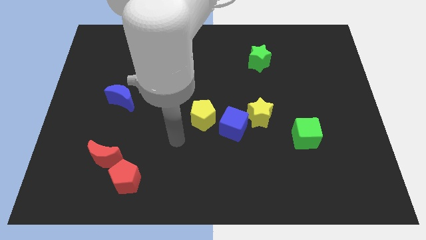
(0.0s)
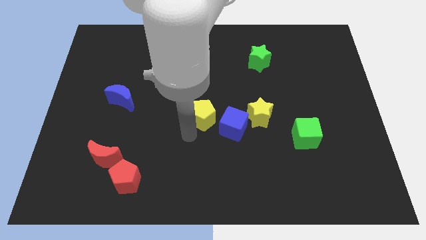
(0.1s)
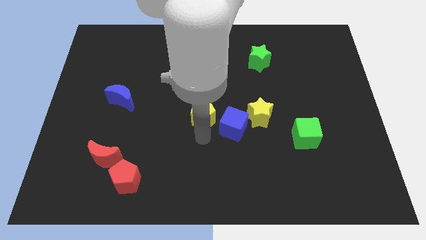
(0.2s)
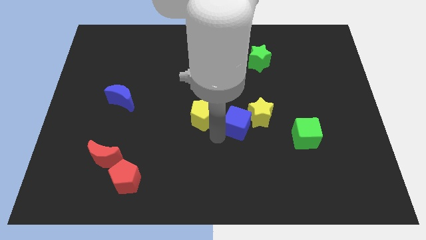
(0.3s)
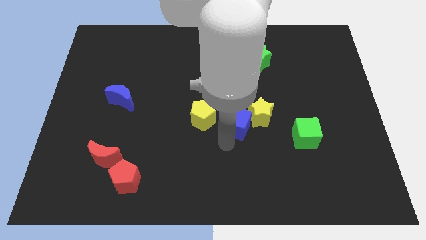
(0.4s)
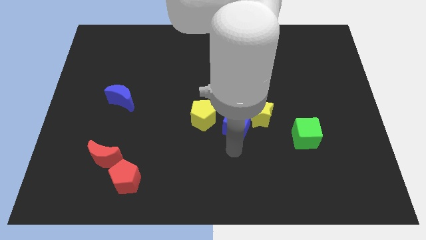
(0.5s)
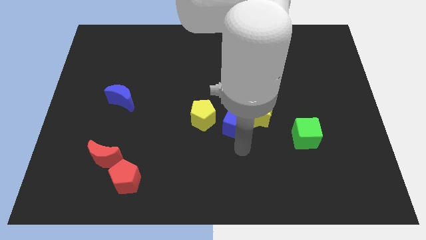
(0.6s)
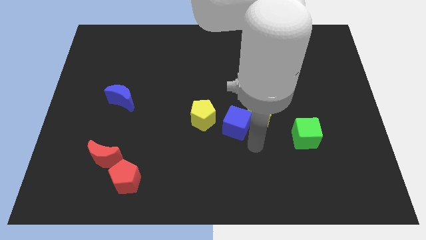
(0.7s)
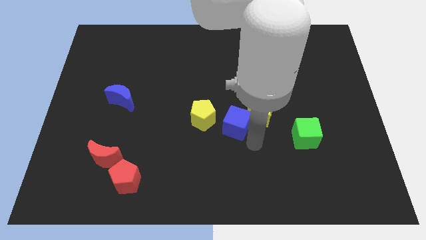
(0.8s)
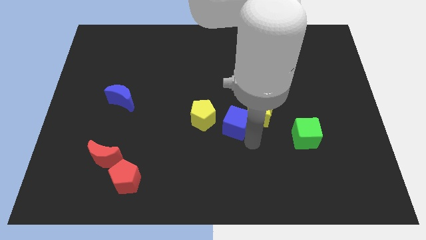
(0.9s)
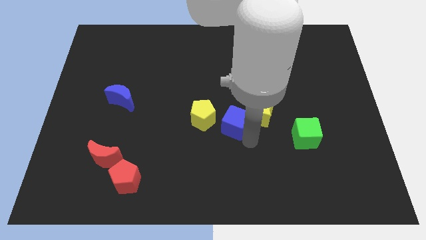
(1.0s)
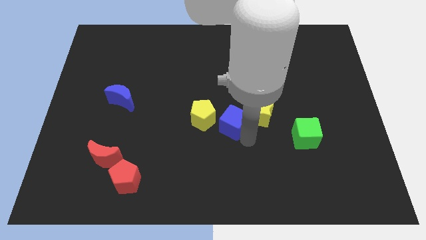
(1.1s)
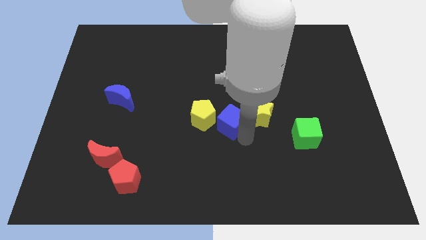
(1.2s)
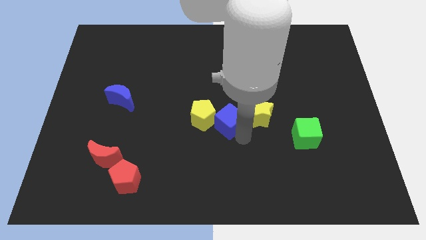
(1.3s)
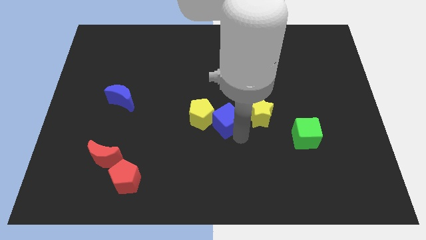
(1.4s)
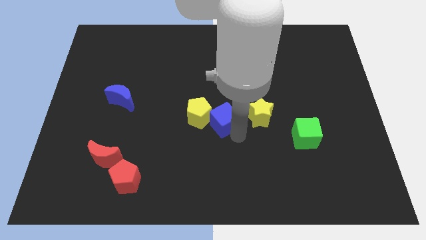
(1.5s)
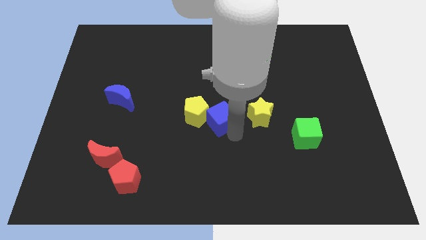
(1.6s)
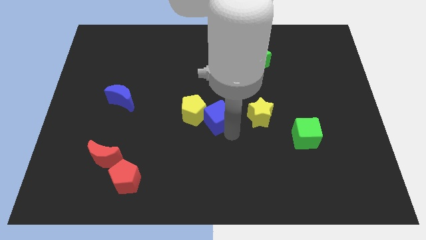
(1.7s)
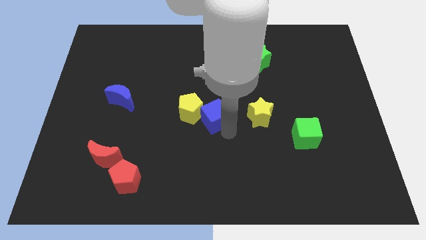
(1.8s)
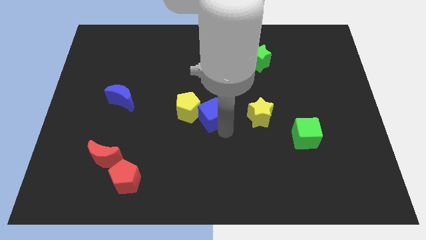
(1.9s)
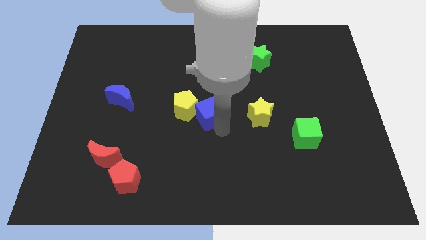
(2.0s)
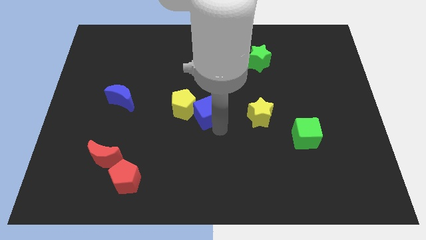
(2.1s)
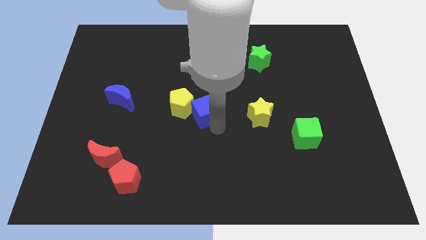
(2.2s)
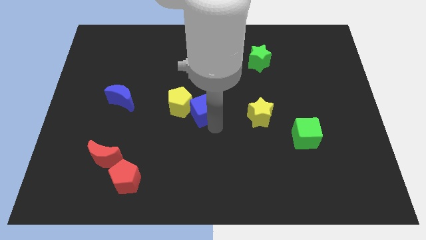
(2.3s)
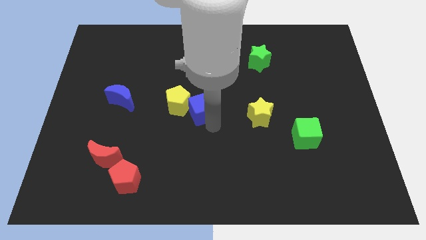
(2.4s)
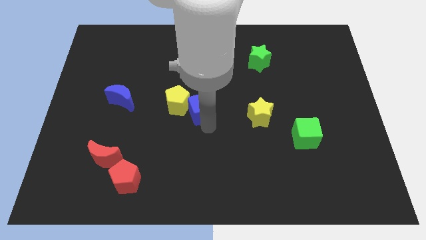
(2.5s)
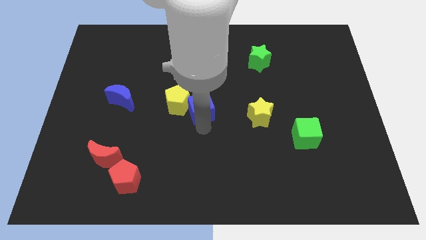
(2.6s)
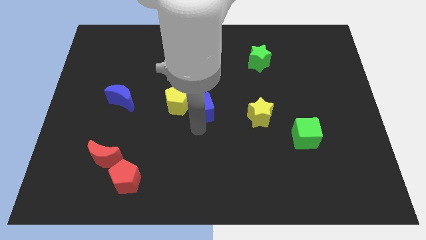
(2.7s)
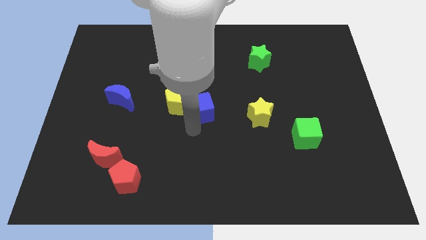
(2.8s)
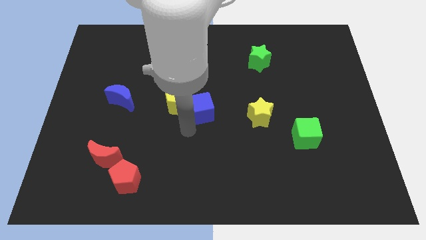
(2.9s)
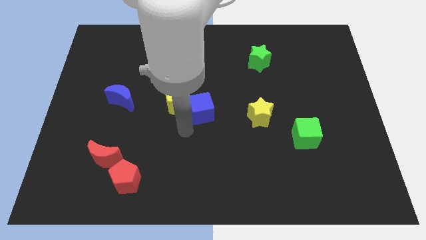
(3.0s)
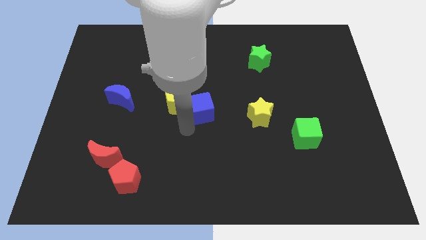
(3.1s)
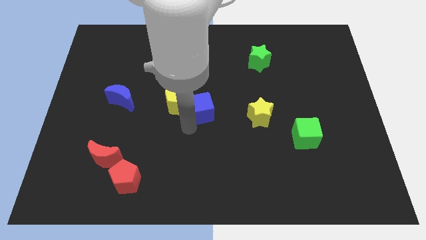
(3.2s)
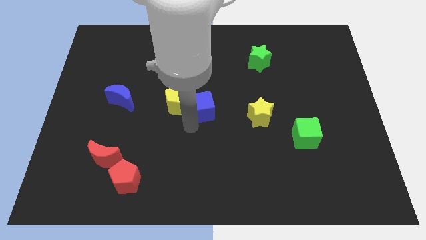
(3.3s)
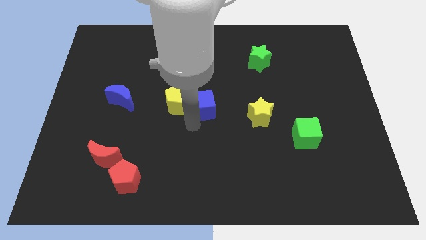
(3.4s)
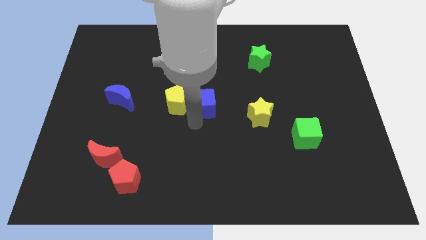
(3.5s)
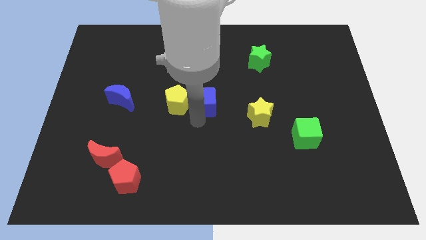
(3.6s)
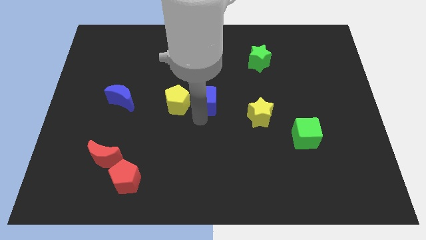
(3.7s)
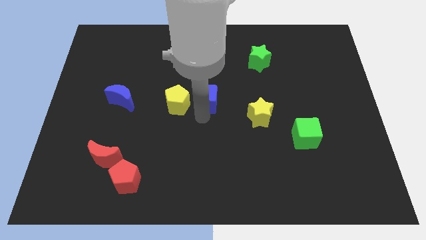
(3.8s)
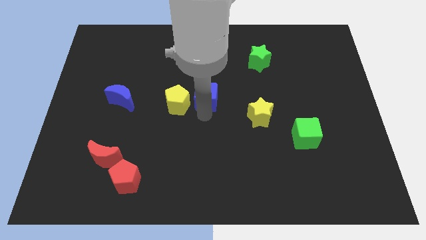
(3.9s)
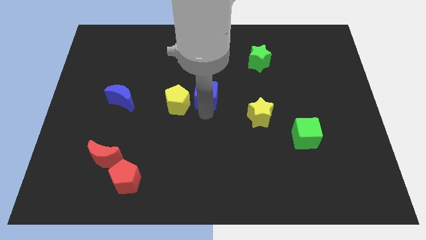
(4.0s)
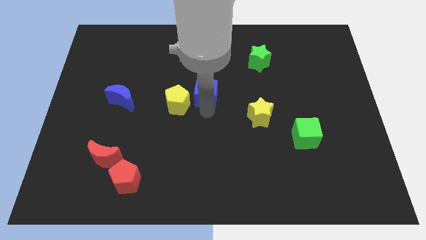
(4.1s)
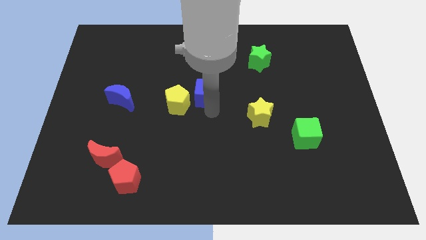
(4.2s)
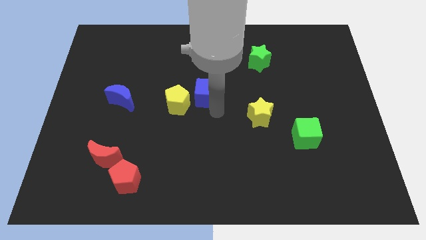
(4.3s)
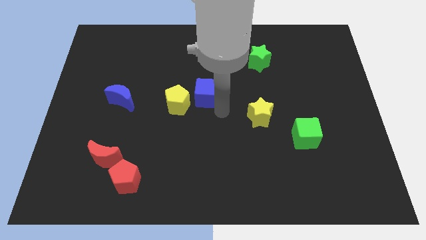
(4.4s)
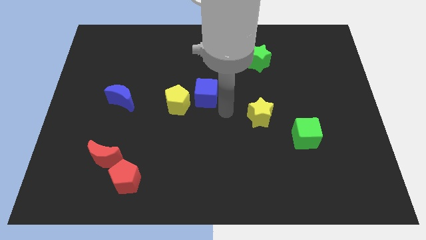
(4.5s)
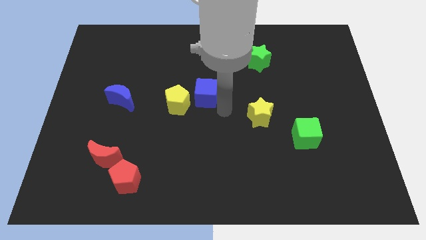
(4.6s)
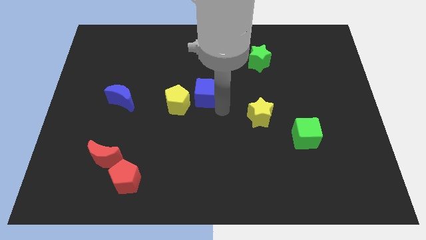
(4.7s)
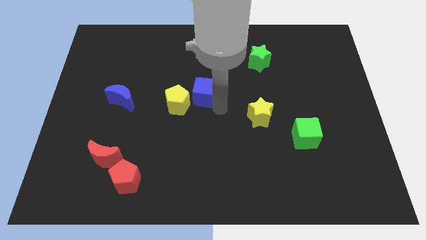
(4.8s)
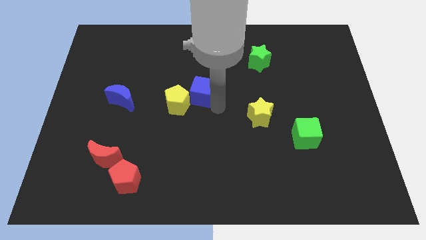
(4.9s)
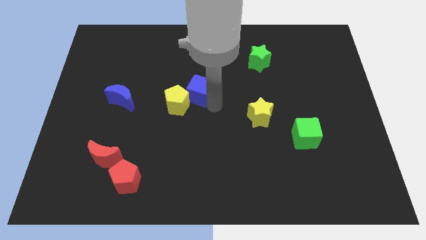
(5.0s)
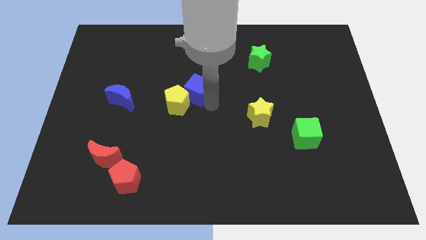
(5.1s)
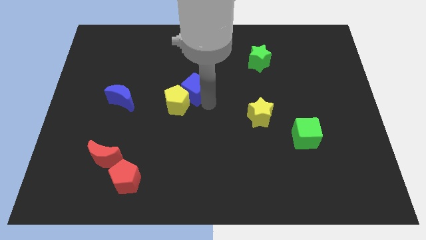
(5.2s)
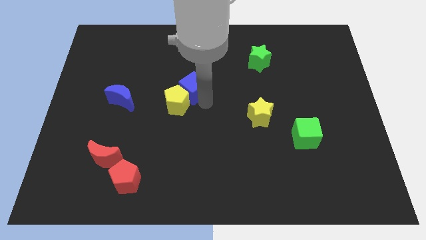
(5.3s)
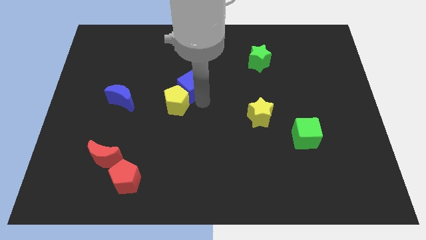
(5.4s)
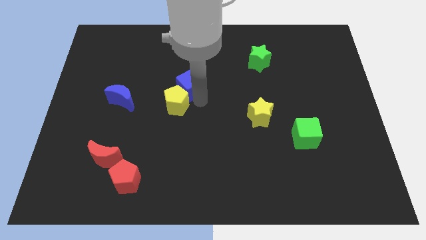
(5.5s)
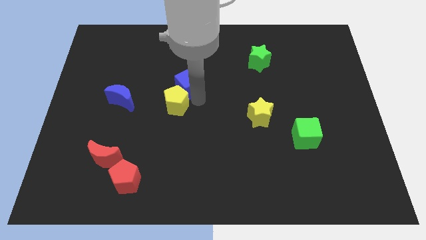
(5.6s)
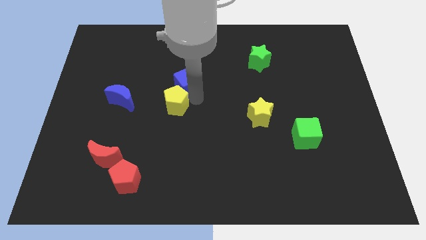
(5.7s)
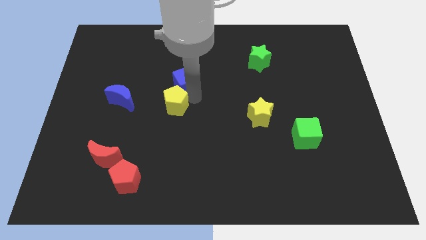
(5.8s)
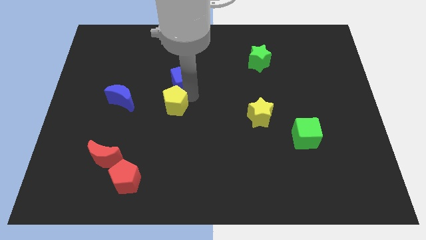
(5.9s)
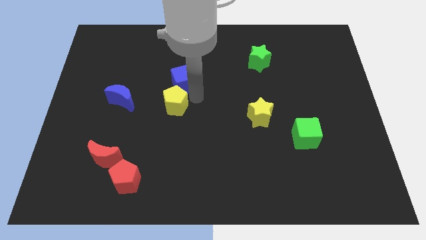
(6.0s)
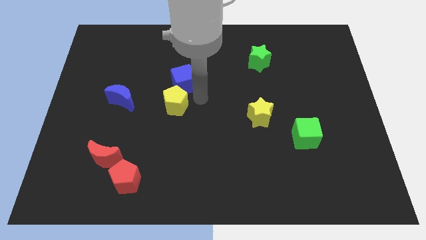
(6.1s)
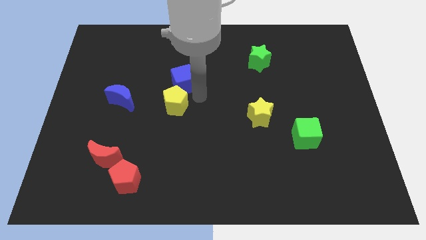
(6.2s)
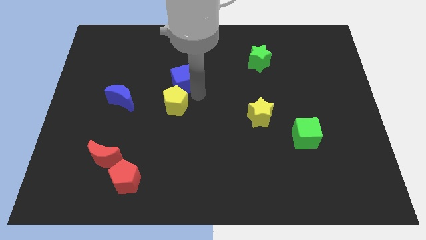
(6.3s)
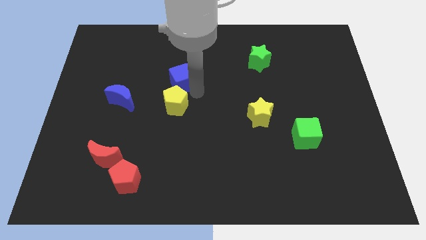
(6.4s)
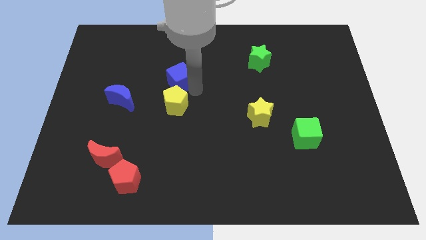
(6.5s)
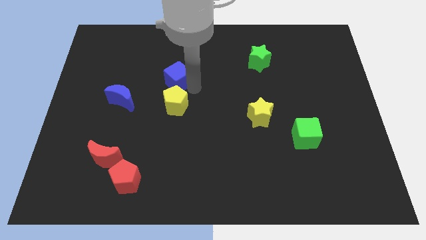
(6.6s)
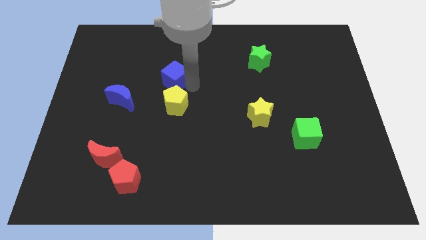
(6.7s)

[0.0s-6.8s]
slide the blue cube upwards and to the left diagonally

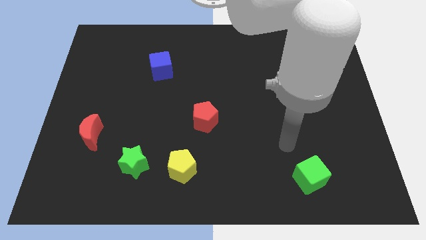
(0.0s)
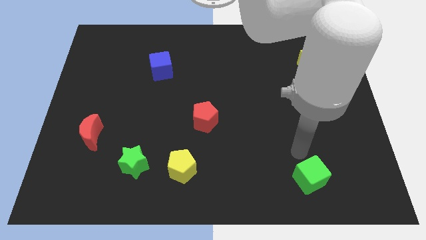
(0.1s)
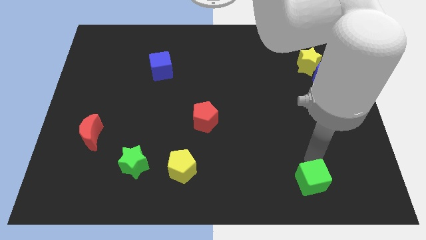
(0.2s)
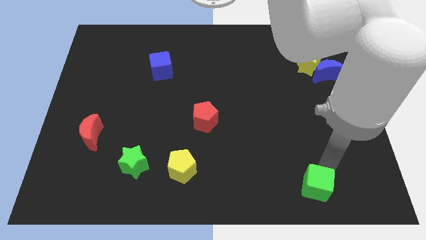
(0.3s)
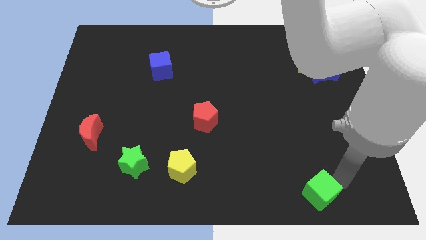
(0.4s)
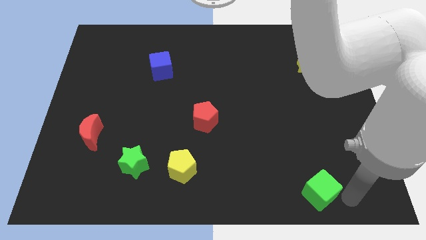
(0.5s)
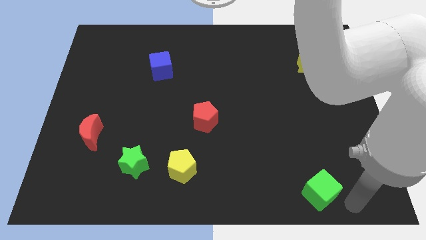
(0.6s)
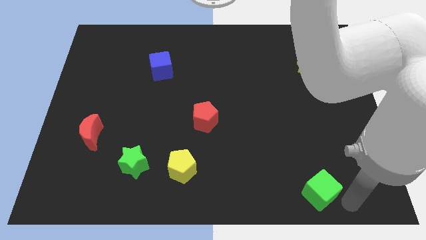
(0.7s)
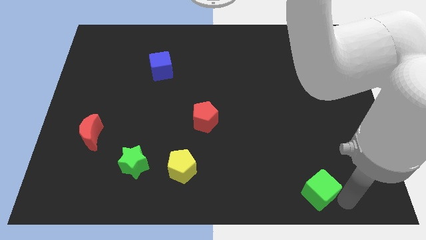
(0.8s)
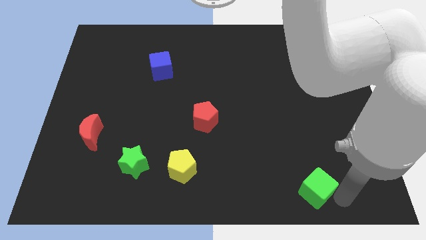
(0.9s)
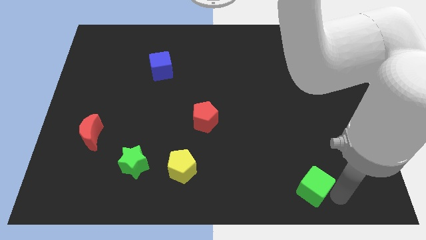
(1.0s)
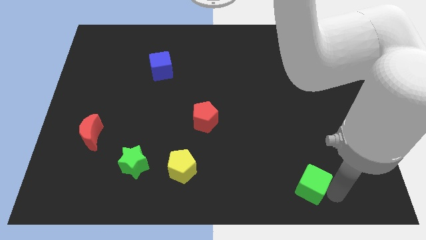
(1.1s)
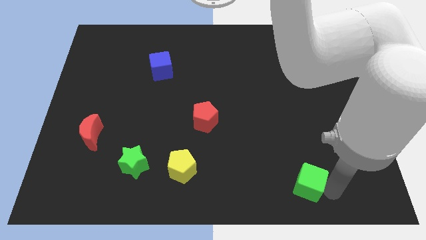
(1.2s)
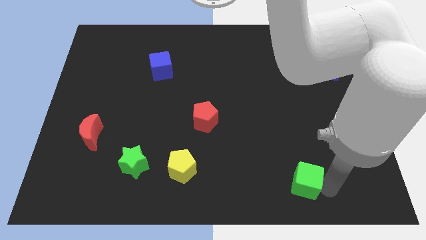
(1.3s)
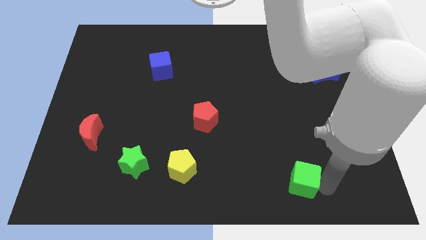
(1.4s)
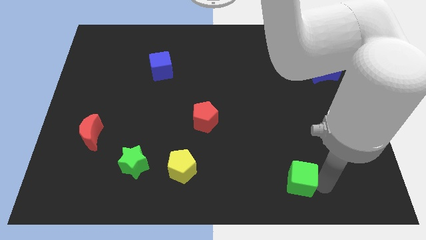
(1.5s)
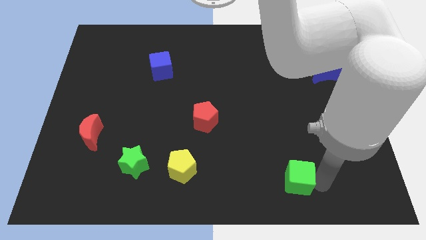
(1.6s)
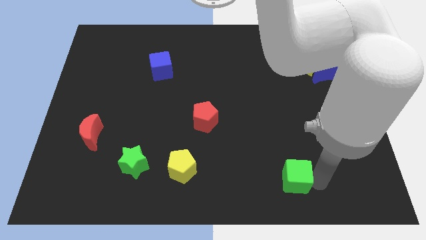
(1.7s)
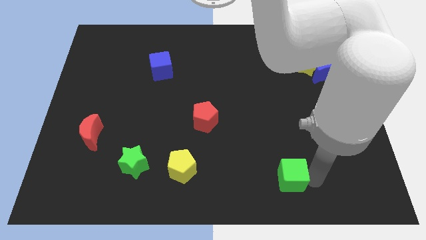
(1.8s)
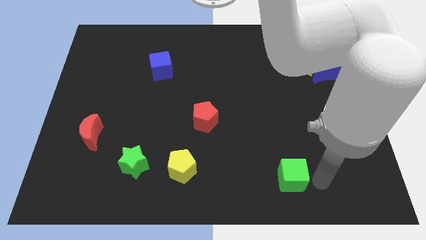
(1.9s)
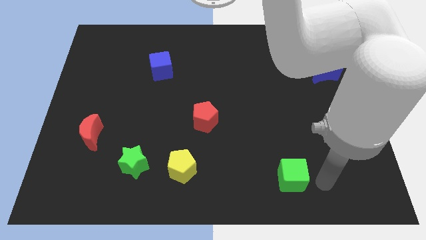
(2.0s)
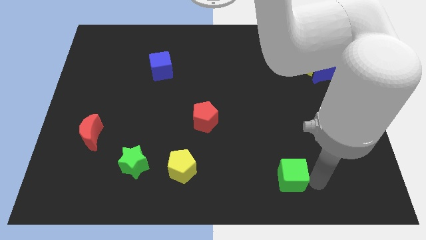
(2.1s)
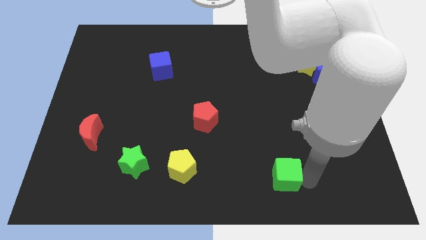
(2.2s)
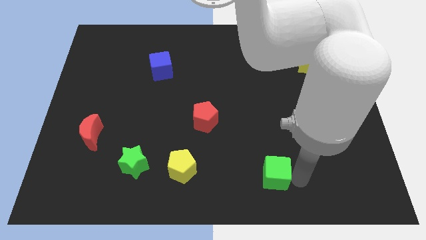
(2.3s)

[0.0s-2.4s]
slightly move the green cube to the left
